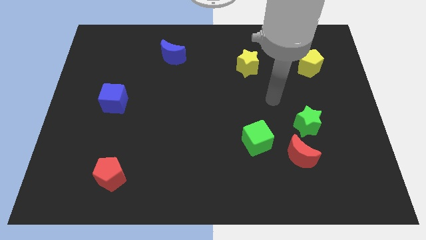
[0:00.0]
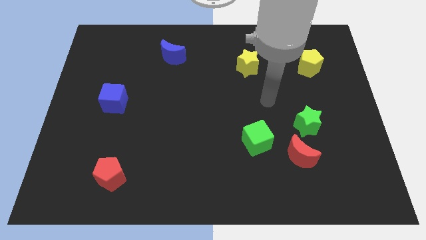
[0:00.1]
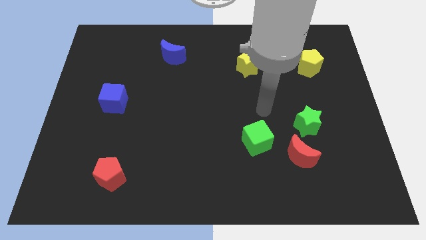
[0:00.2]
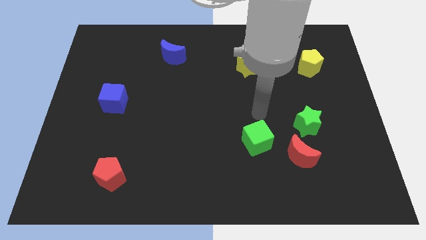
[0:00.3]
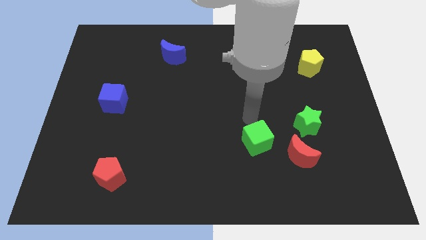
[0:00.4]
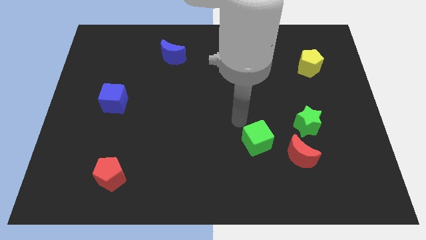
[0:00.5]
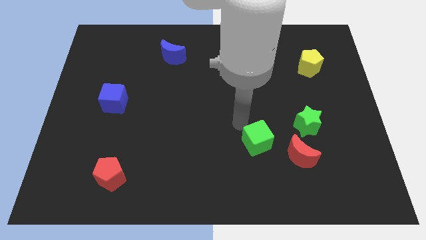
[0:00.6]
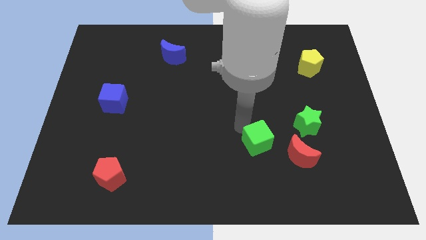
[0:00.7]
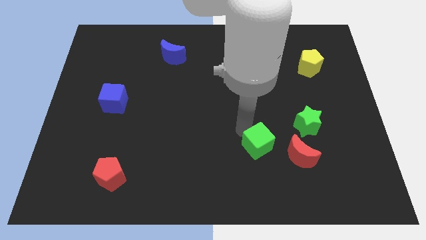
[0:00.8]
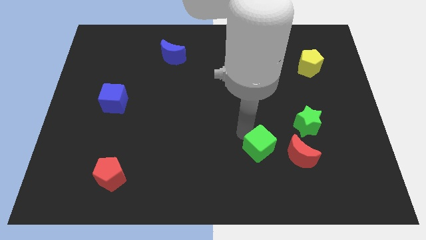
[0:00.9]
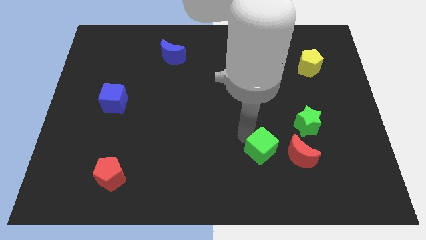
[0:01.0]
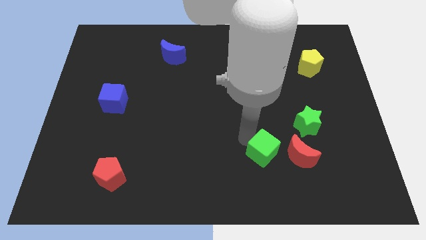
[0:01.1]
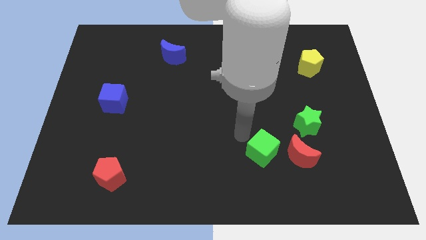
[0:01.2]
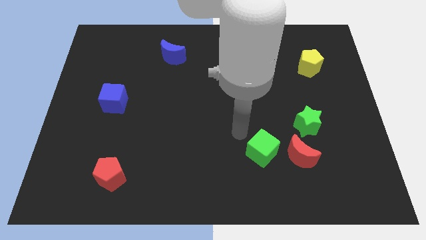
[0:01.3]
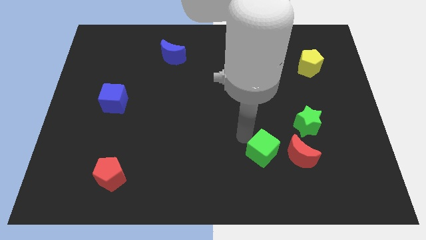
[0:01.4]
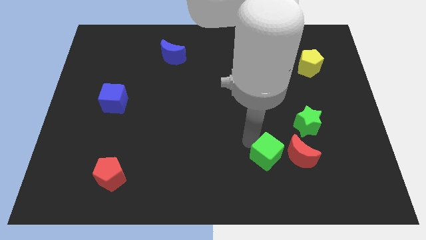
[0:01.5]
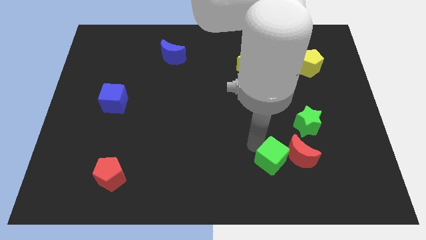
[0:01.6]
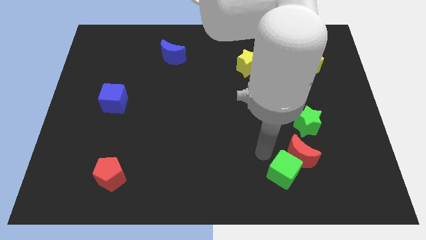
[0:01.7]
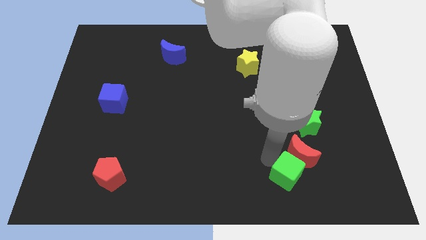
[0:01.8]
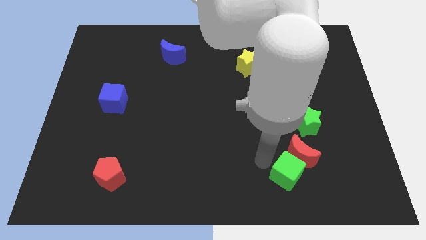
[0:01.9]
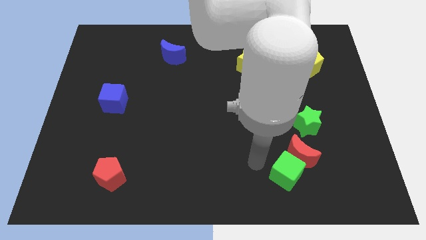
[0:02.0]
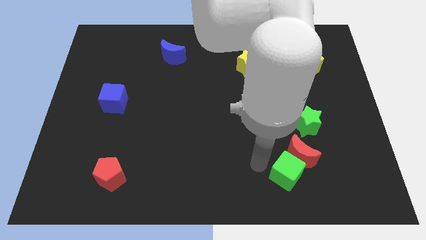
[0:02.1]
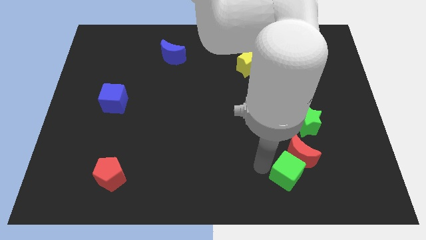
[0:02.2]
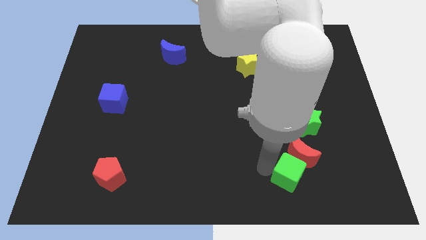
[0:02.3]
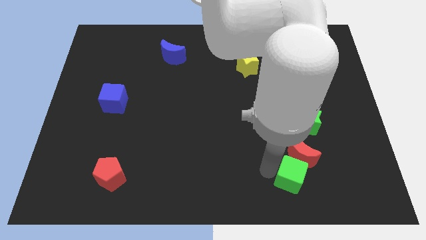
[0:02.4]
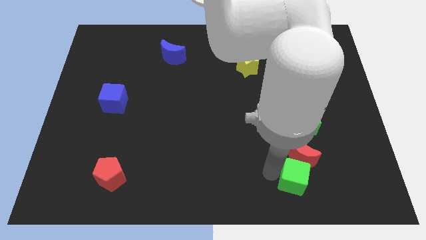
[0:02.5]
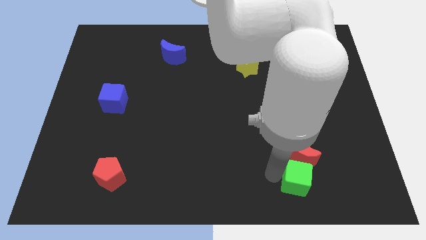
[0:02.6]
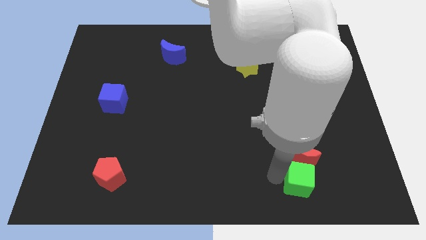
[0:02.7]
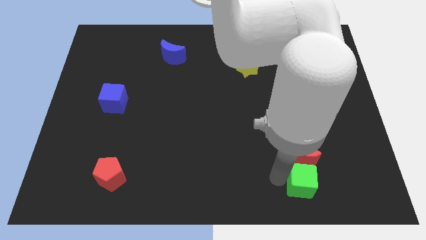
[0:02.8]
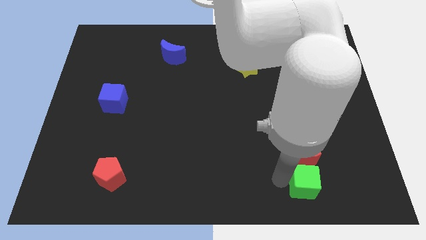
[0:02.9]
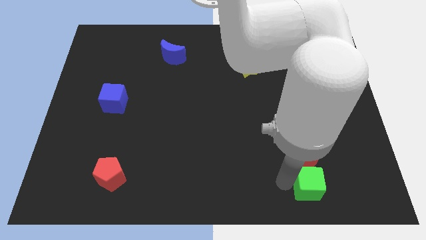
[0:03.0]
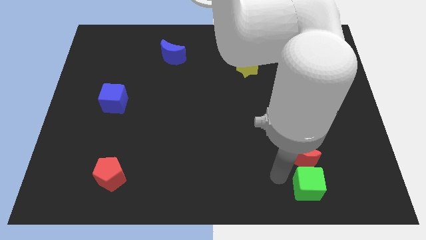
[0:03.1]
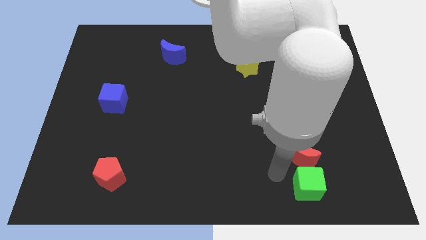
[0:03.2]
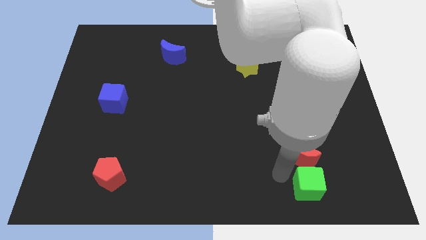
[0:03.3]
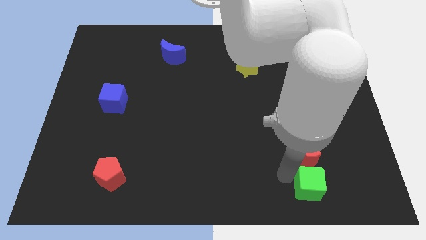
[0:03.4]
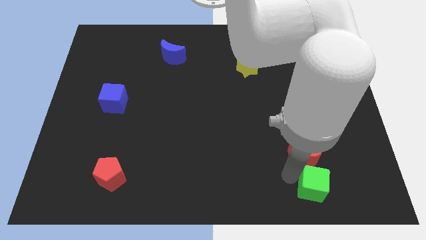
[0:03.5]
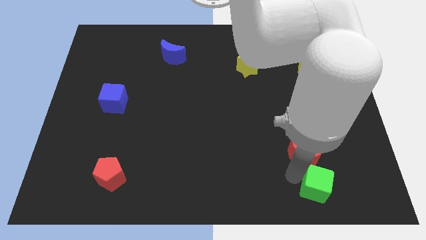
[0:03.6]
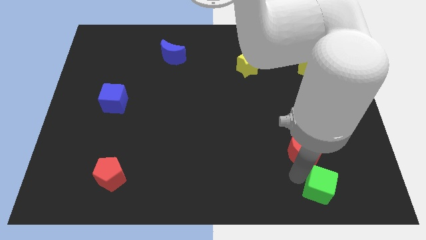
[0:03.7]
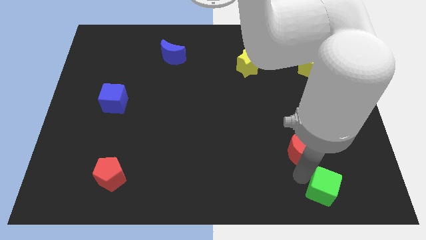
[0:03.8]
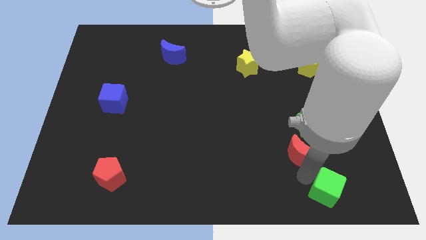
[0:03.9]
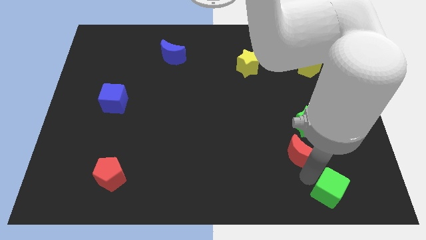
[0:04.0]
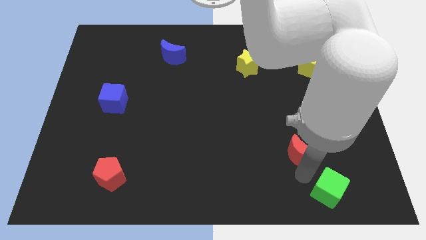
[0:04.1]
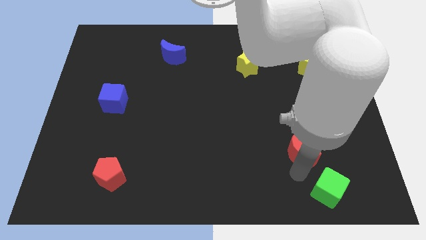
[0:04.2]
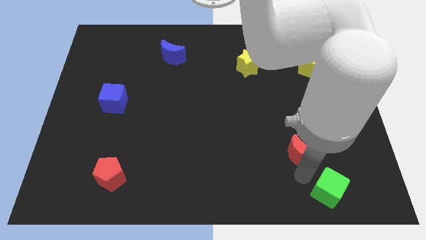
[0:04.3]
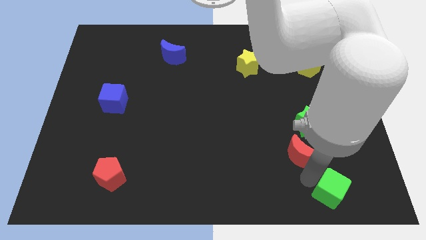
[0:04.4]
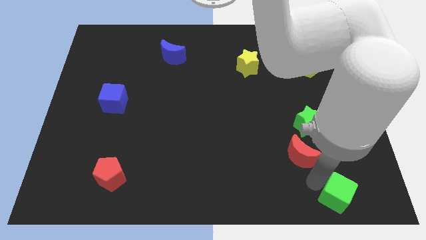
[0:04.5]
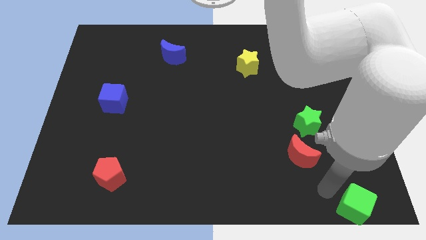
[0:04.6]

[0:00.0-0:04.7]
slide the green cube to the bottom right
